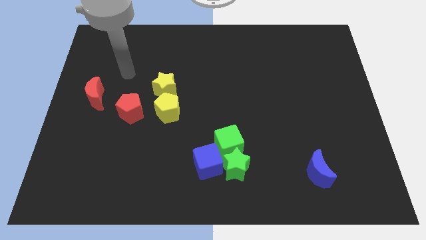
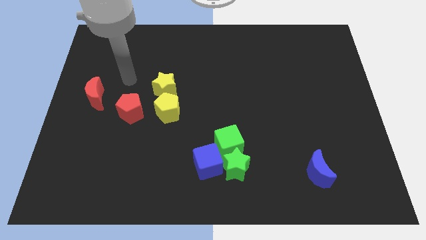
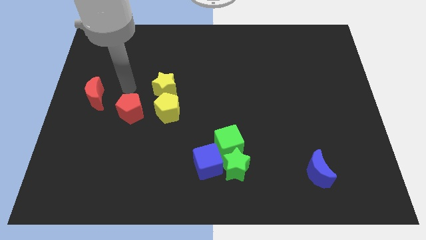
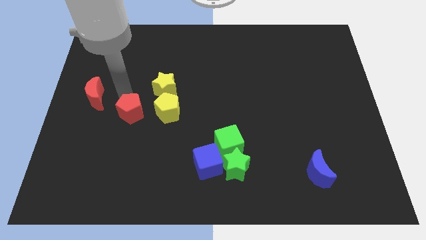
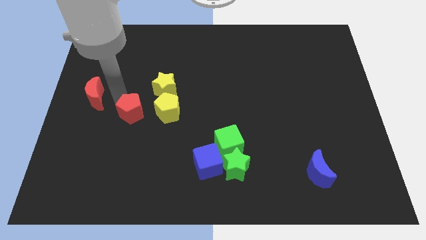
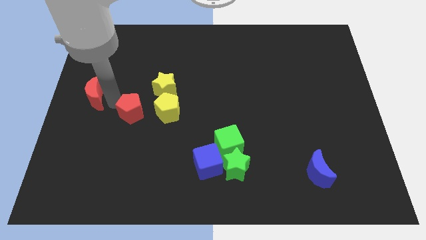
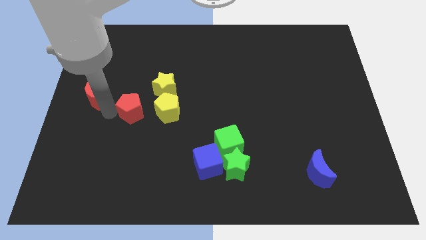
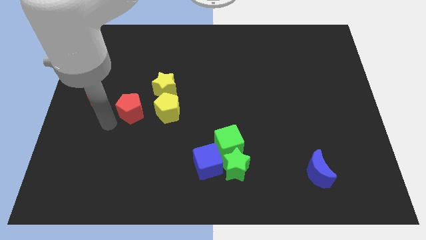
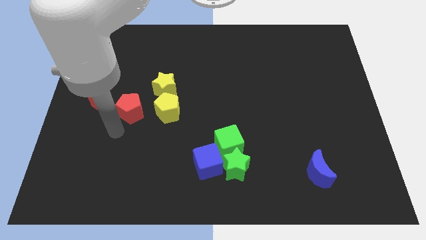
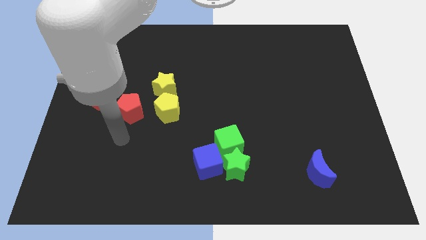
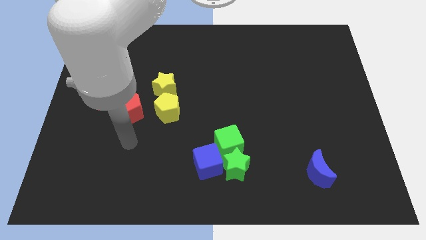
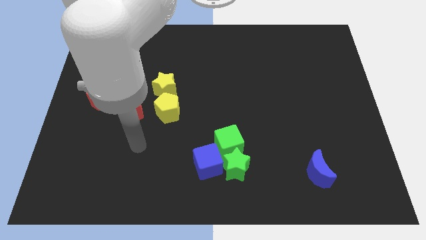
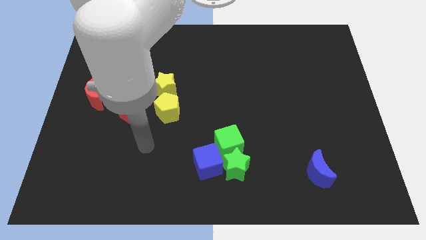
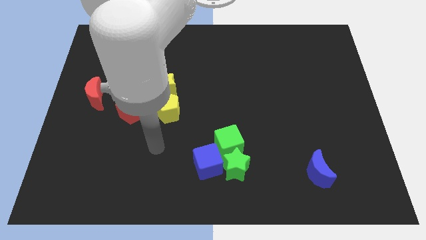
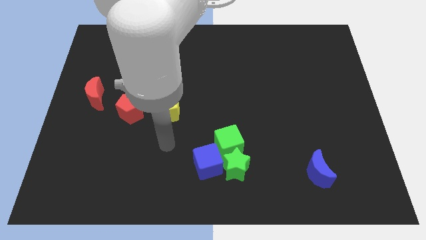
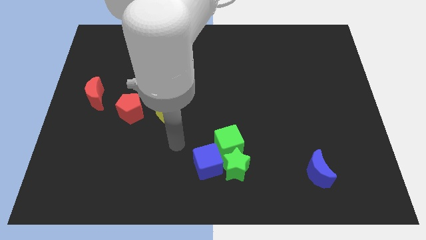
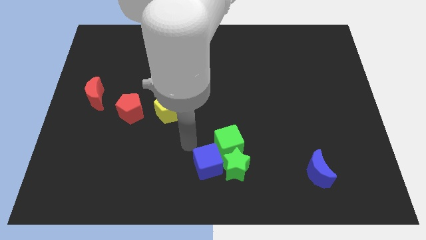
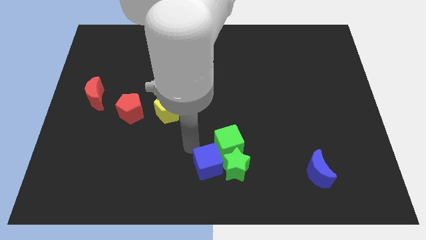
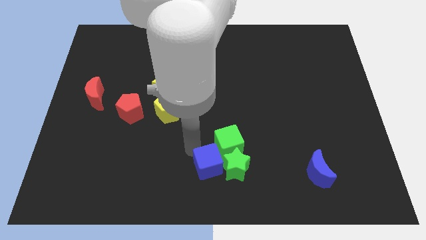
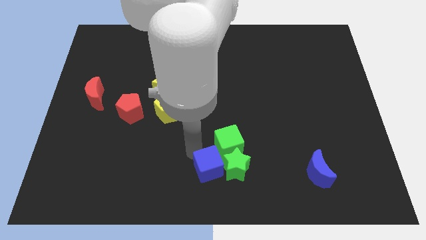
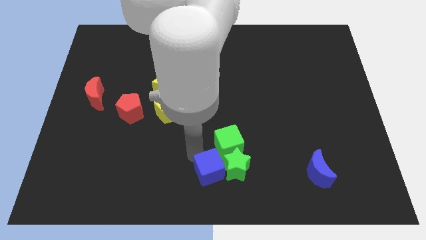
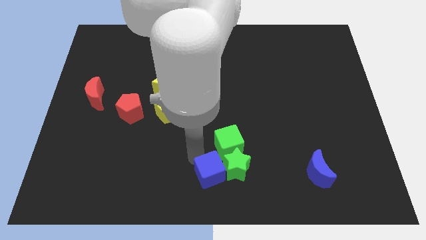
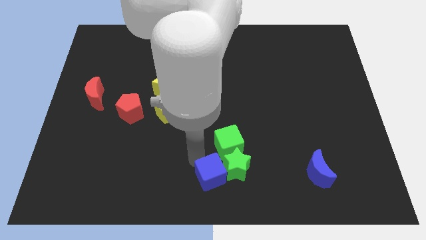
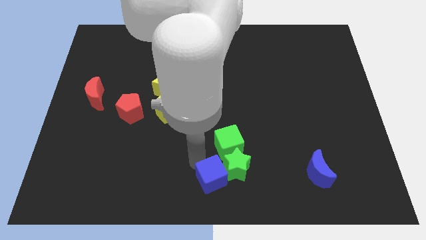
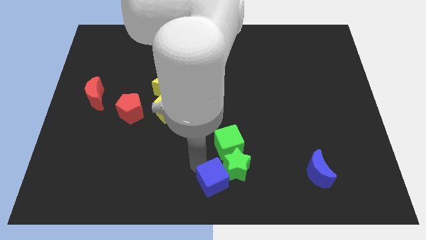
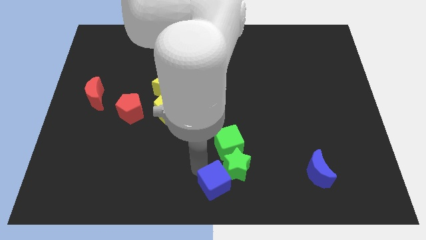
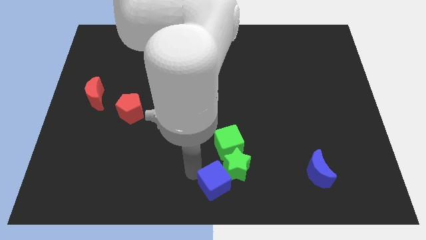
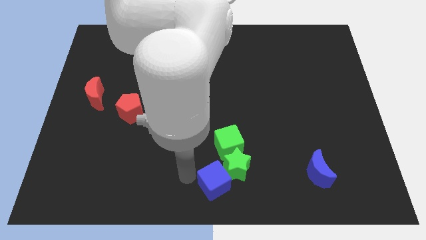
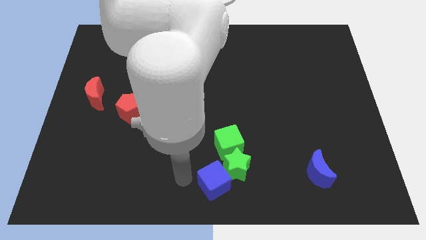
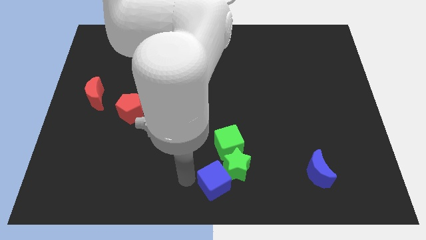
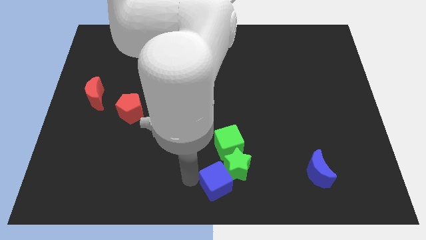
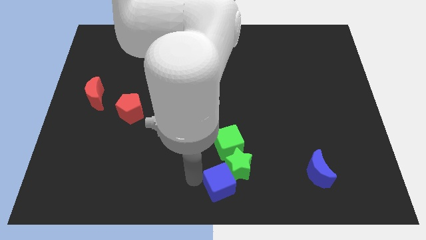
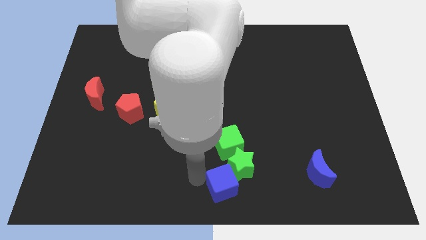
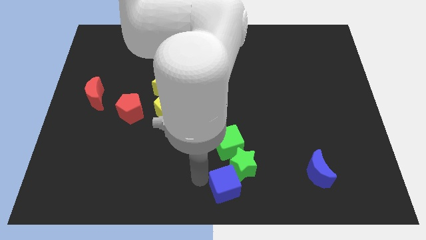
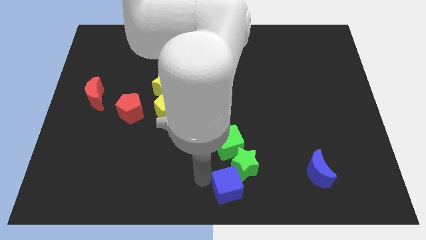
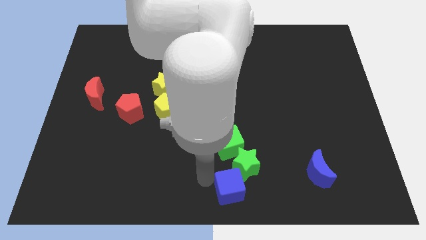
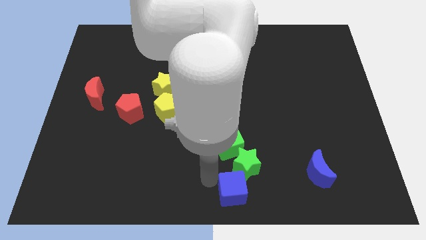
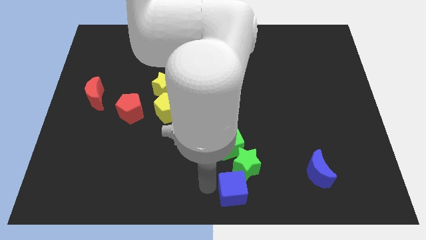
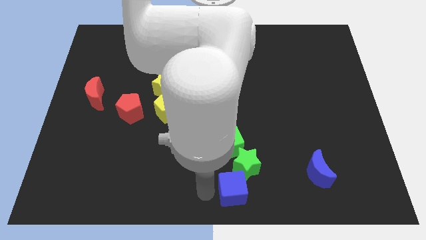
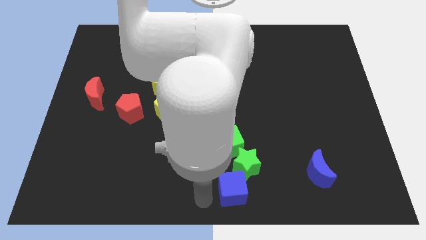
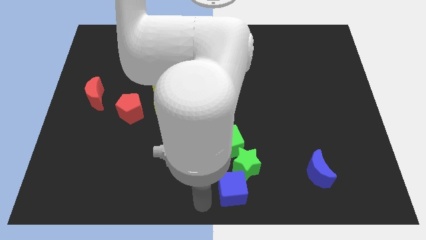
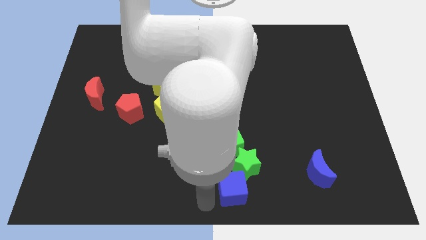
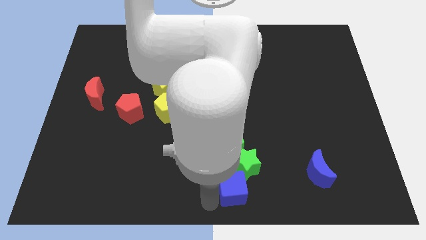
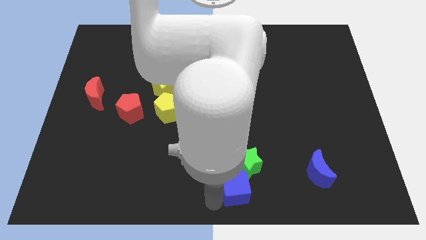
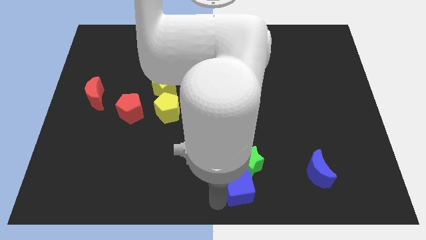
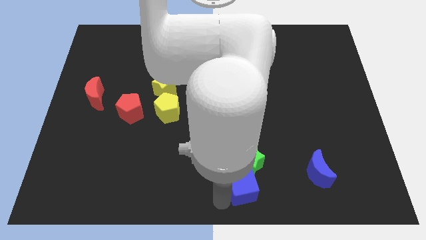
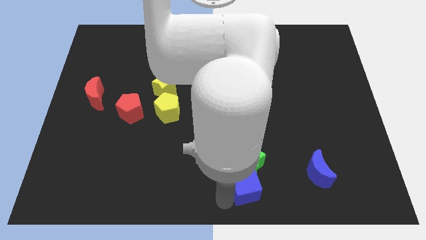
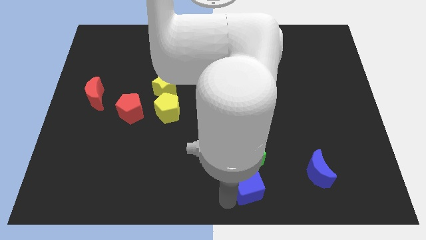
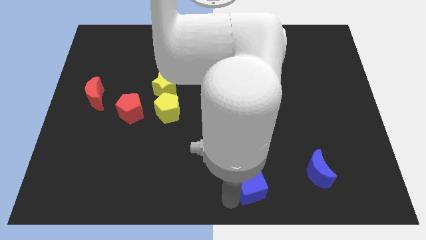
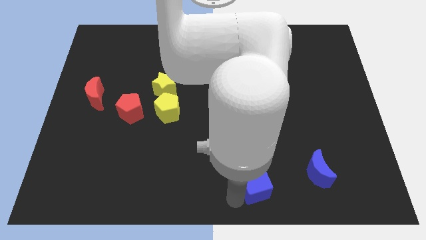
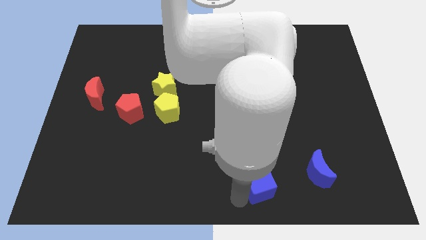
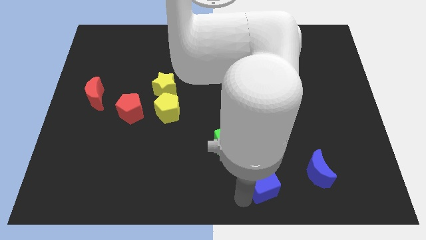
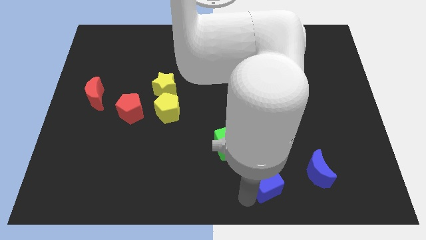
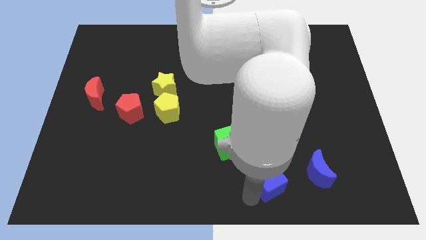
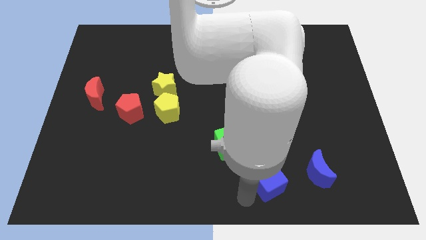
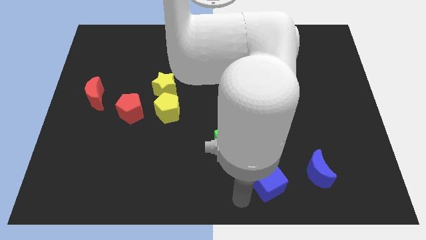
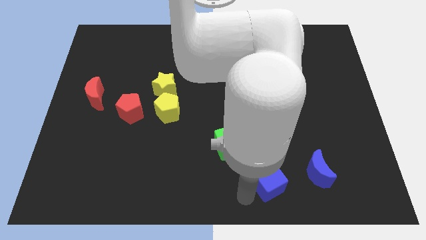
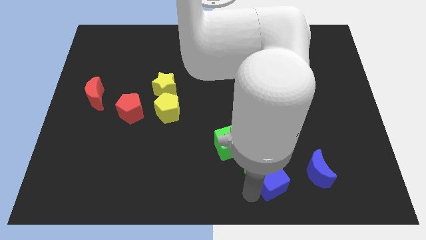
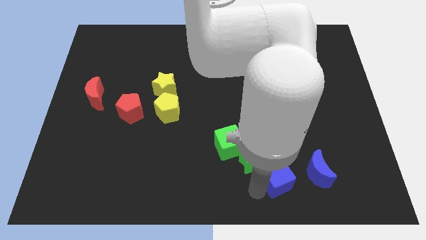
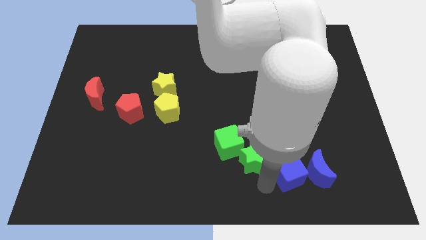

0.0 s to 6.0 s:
slide the blue cube next to the blue moon

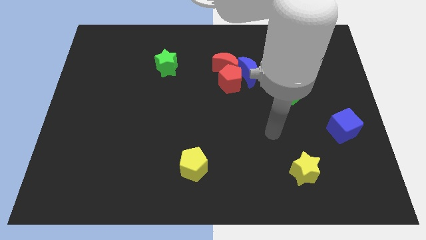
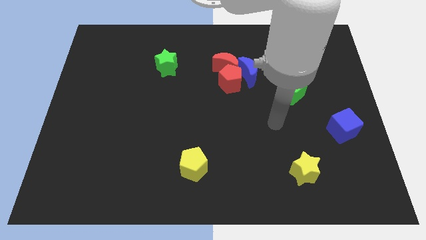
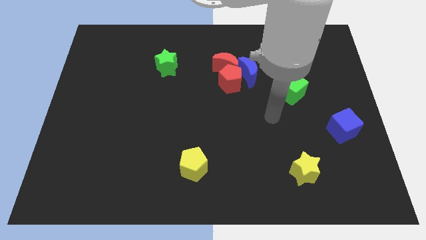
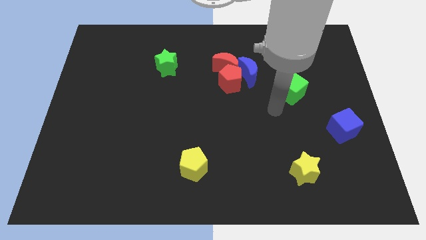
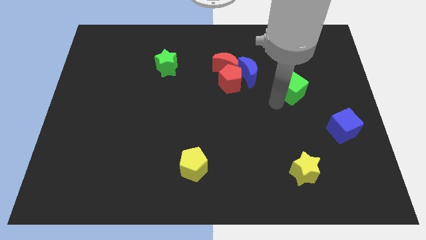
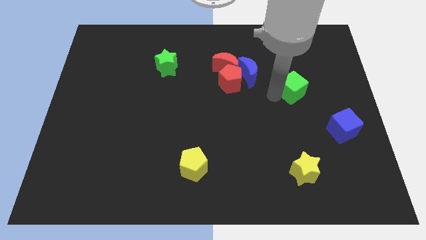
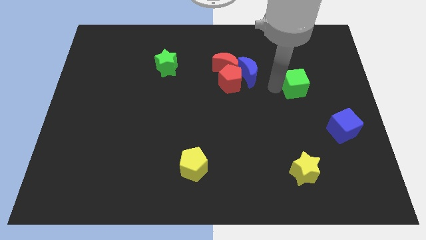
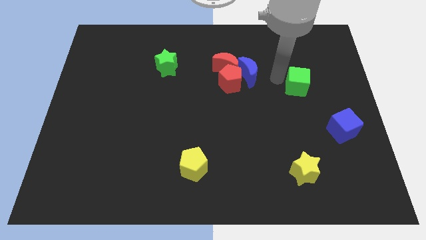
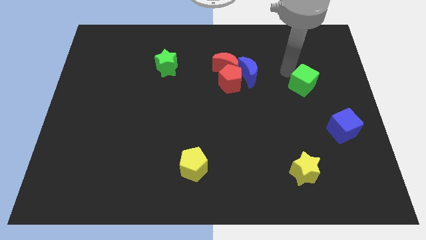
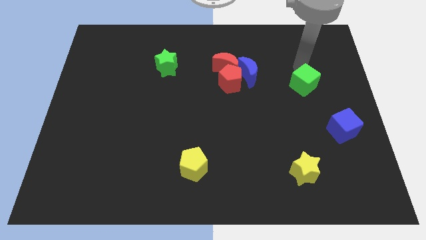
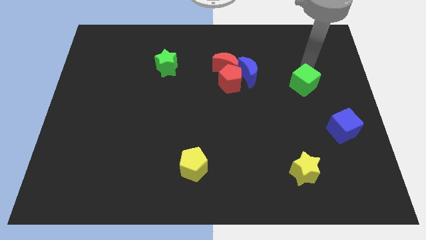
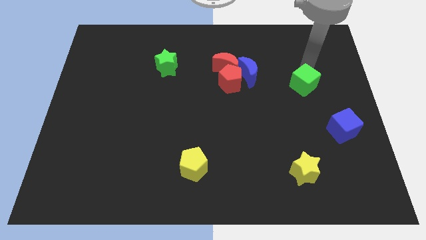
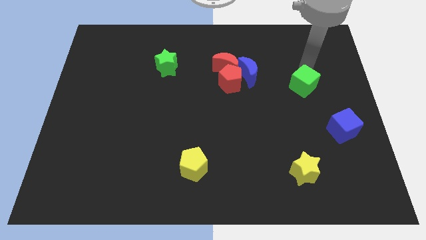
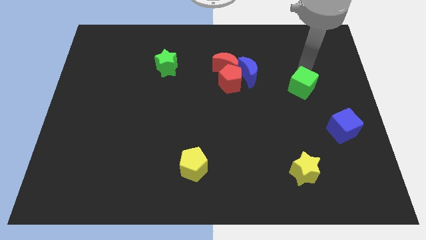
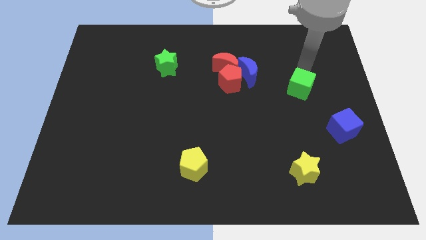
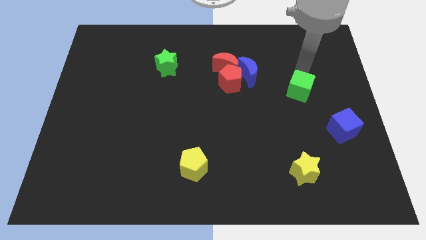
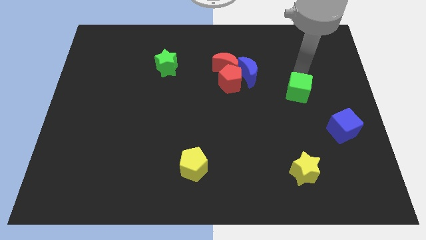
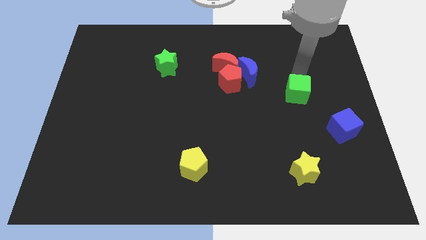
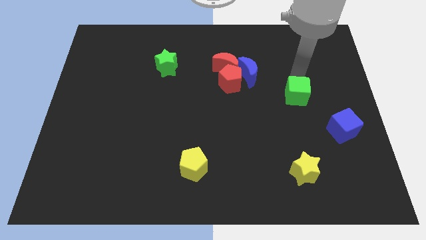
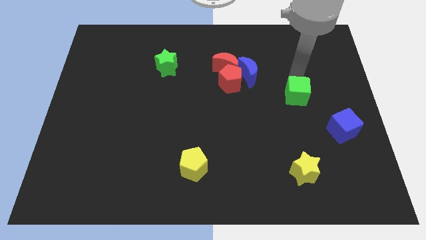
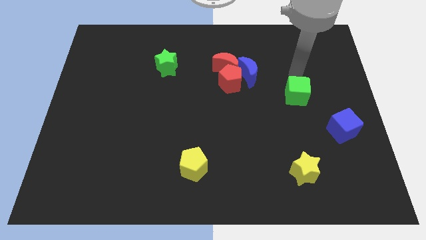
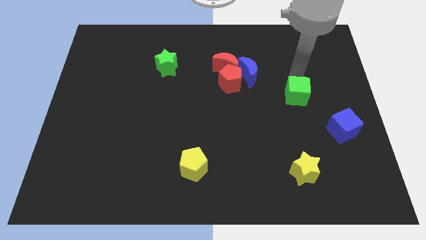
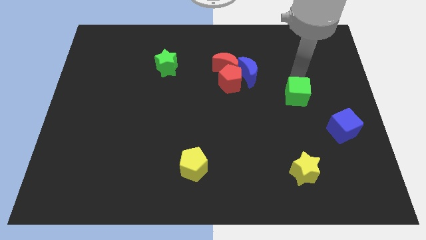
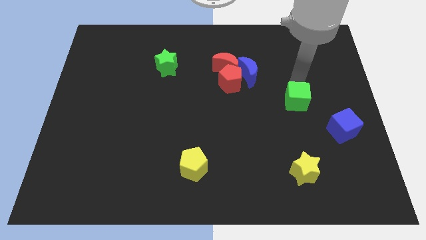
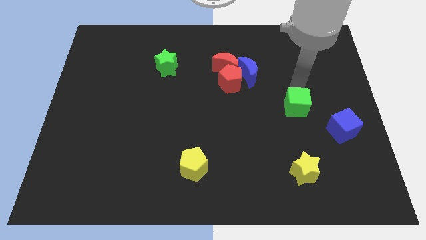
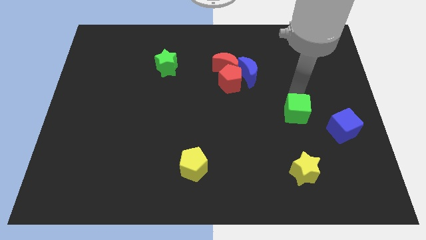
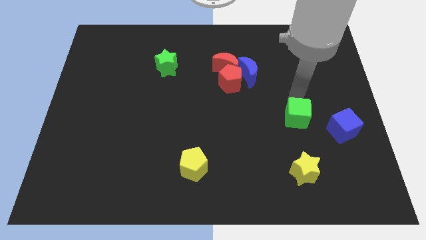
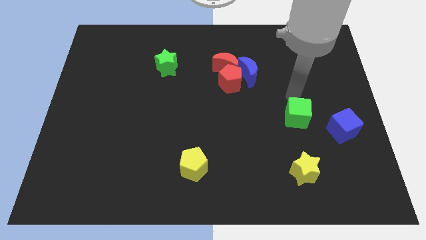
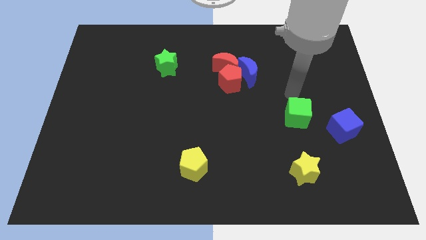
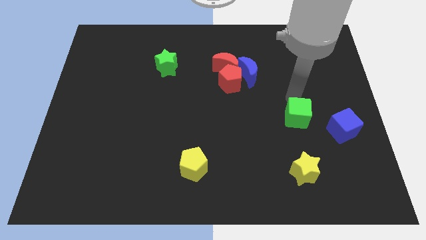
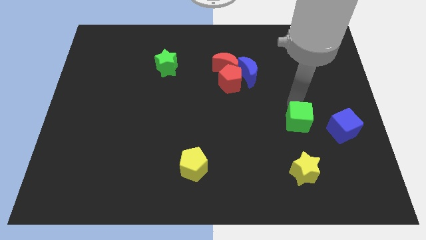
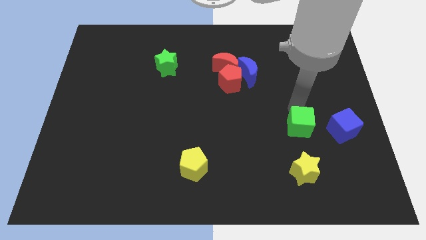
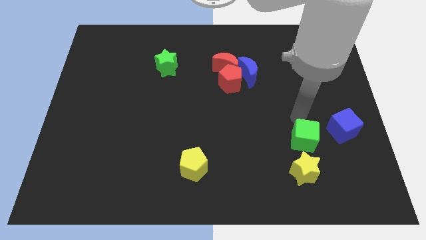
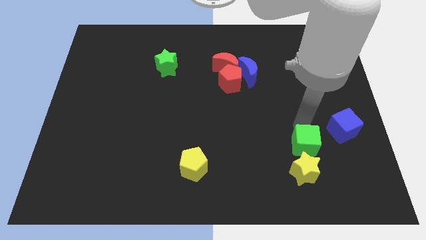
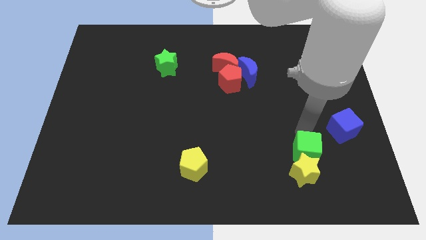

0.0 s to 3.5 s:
push the green cube towards the yellow star
